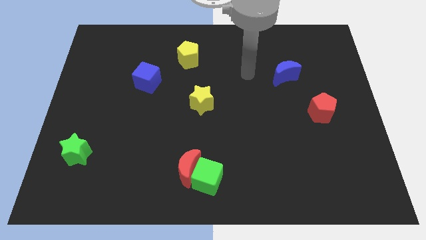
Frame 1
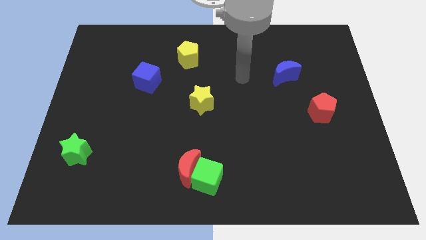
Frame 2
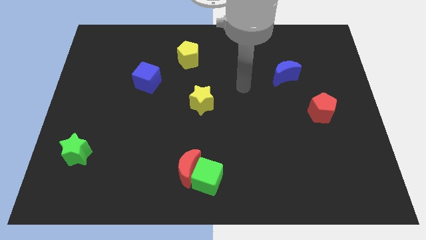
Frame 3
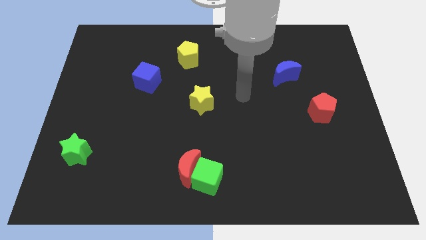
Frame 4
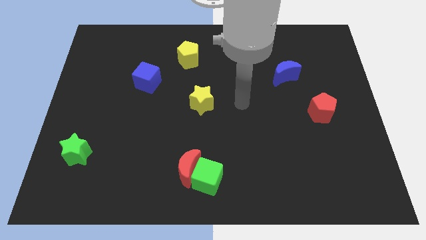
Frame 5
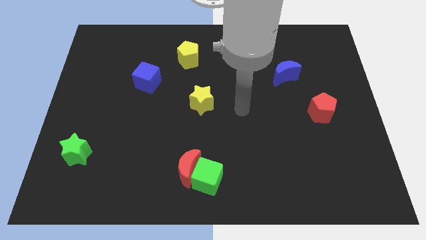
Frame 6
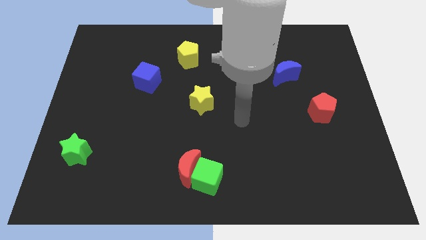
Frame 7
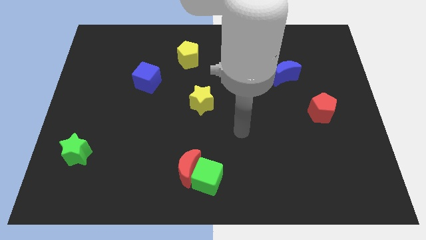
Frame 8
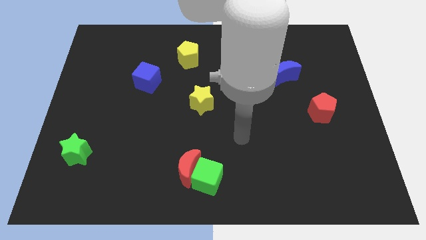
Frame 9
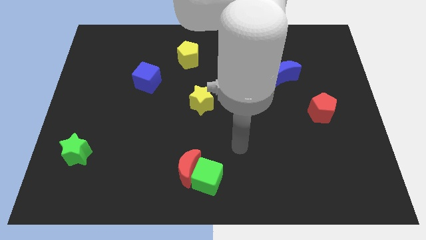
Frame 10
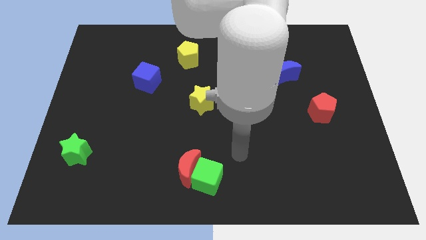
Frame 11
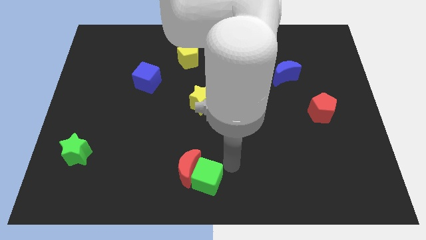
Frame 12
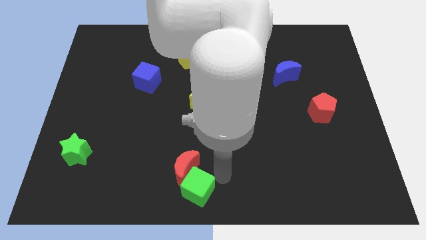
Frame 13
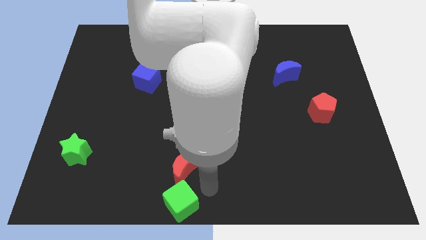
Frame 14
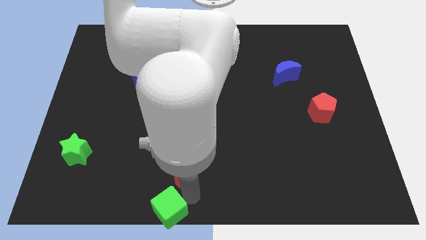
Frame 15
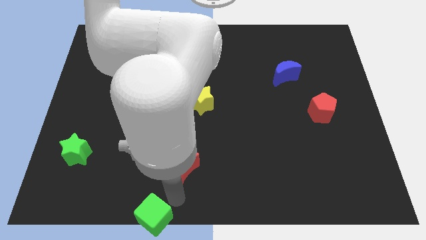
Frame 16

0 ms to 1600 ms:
separate the red moon from the green cube

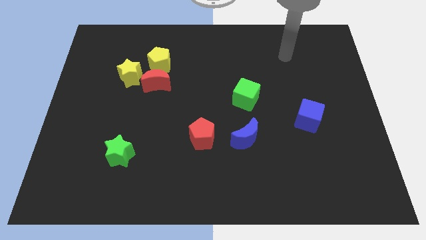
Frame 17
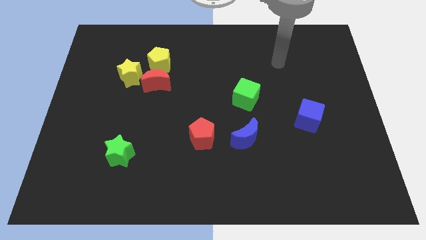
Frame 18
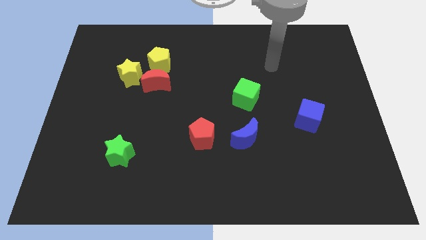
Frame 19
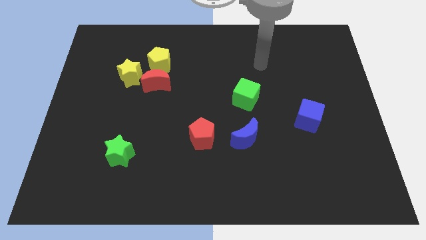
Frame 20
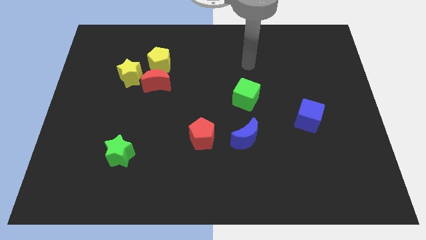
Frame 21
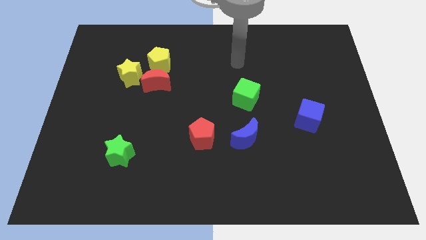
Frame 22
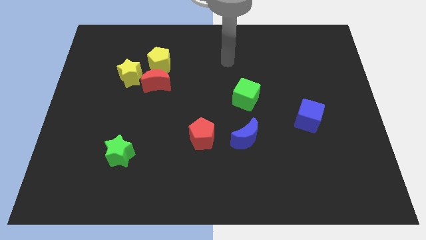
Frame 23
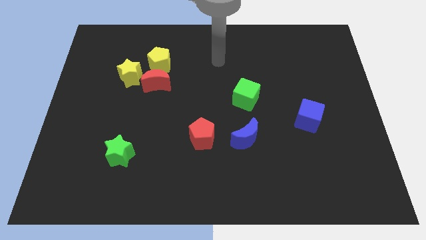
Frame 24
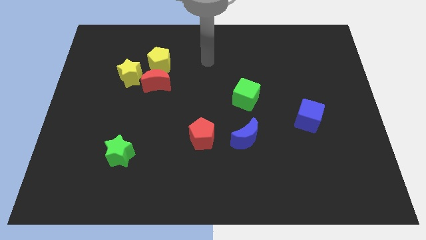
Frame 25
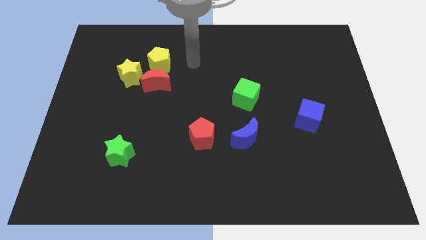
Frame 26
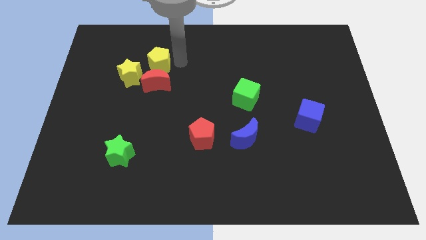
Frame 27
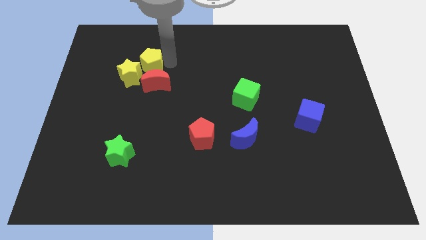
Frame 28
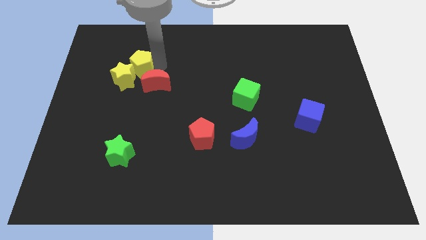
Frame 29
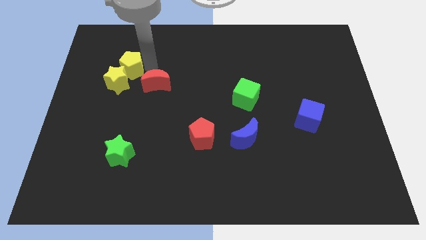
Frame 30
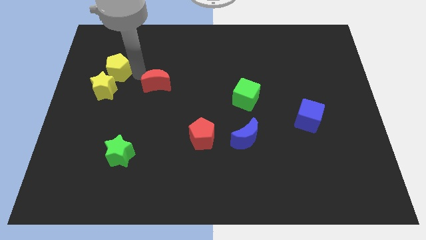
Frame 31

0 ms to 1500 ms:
move the red moon away from the yellow pentagon and yellow star

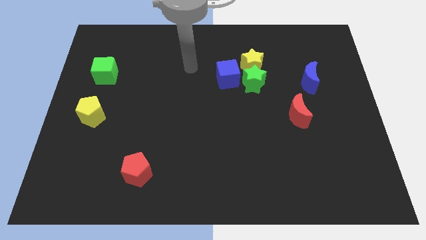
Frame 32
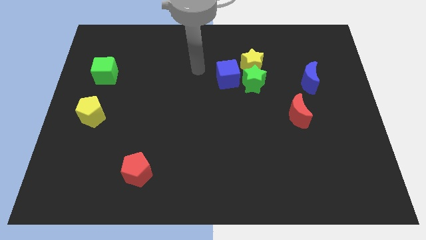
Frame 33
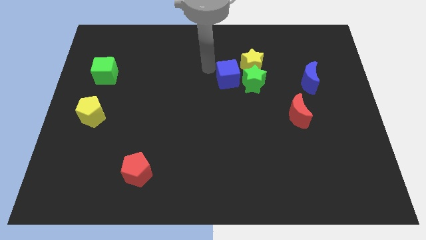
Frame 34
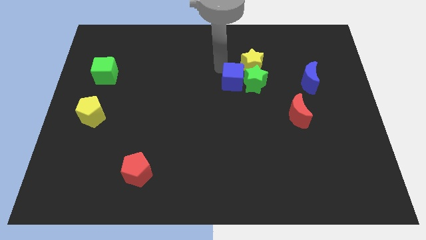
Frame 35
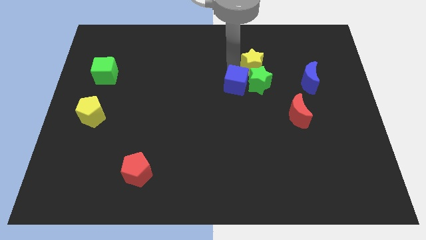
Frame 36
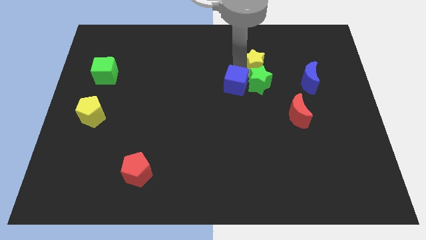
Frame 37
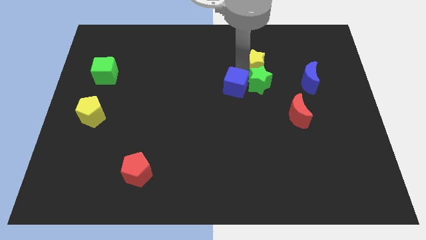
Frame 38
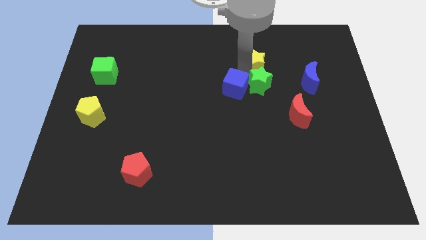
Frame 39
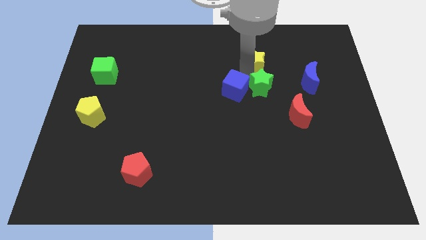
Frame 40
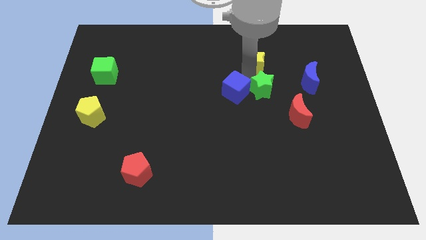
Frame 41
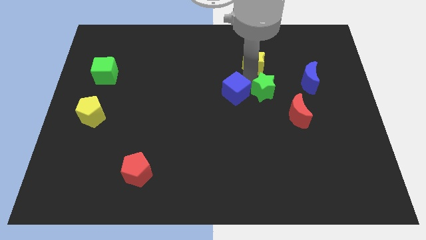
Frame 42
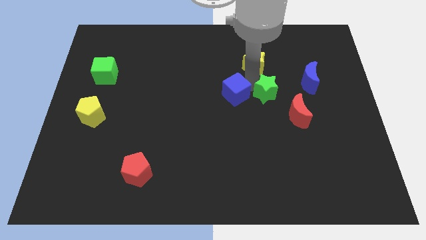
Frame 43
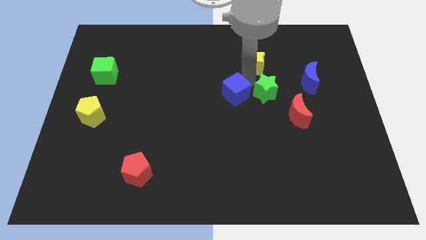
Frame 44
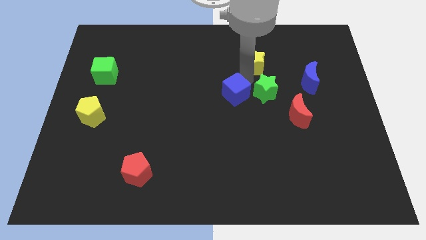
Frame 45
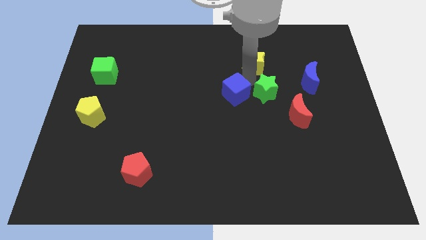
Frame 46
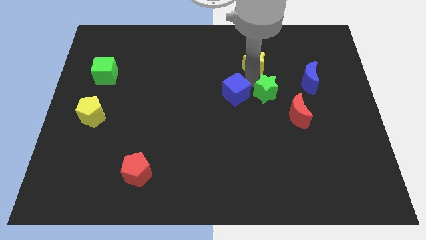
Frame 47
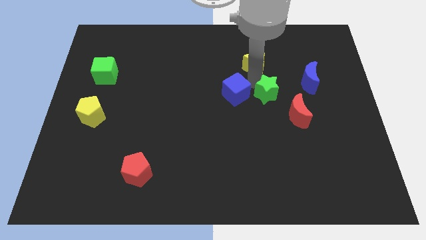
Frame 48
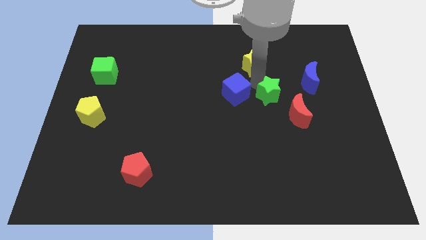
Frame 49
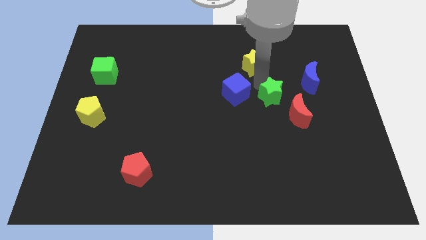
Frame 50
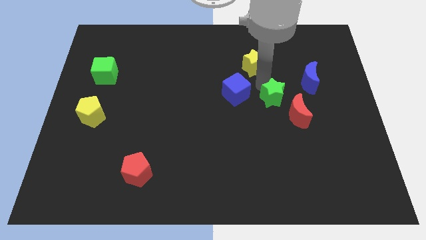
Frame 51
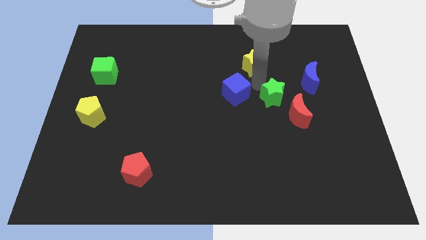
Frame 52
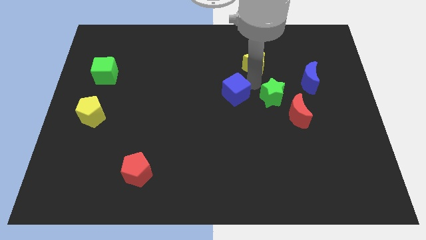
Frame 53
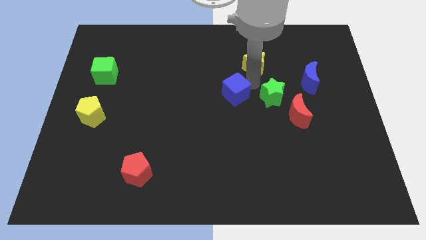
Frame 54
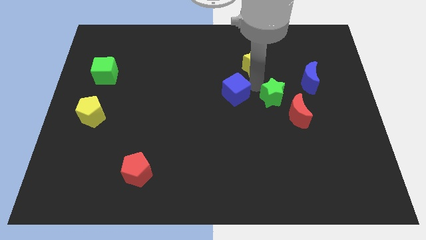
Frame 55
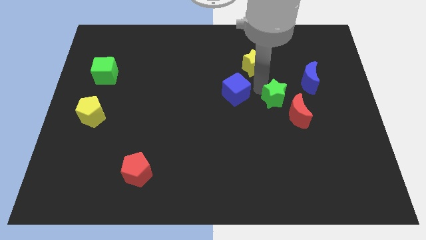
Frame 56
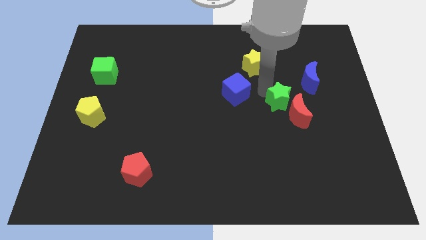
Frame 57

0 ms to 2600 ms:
move the green star away from the yellow star and blue cube

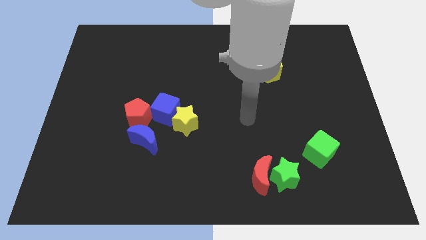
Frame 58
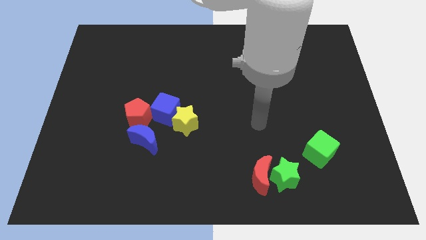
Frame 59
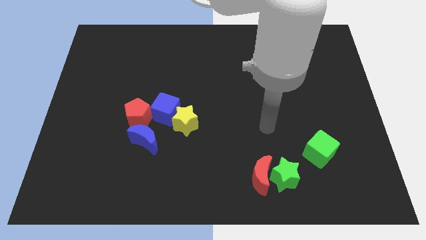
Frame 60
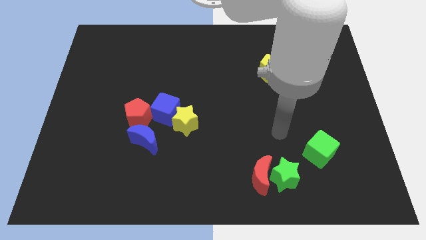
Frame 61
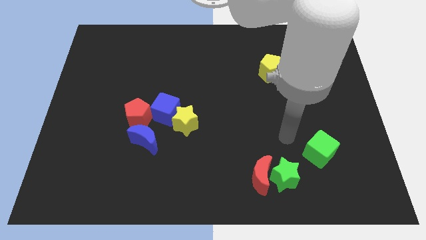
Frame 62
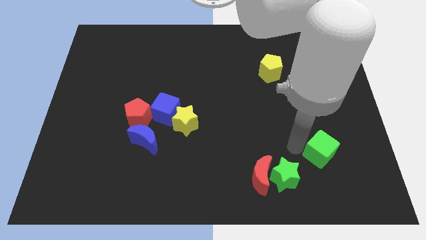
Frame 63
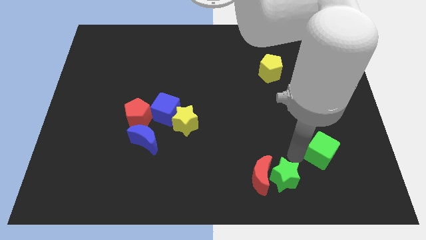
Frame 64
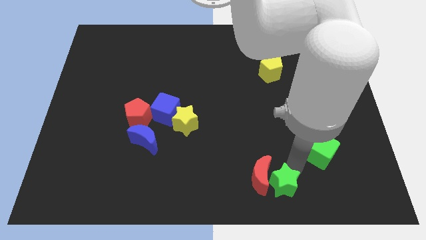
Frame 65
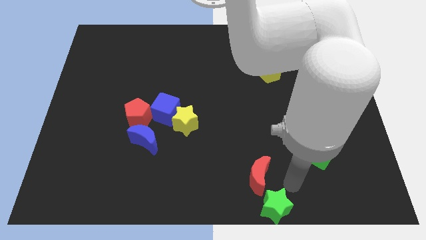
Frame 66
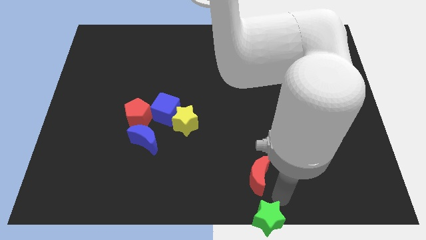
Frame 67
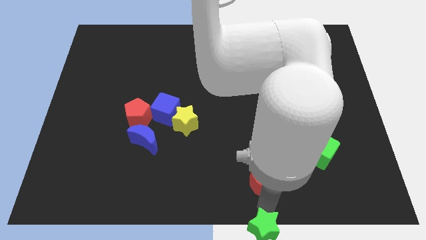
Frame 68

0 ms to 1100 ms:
pull the red moon apart from the green star

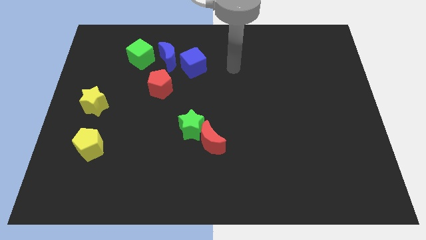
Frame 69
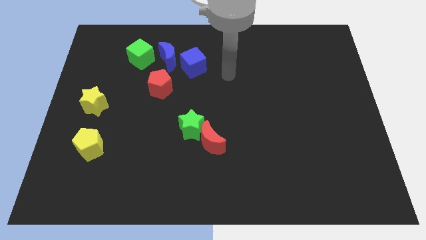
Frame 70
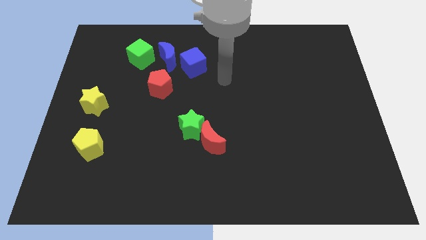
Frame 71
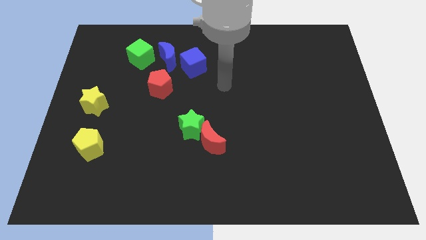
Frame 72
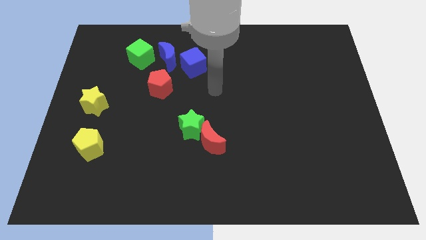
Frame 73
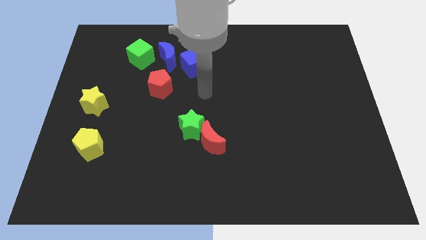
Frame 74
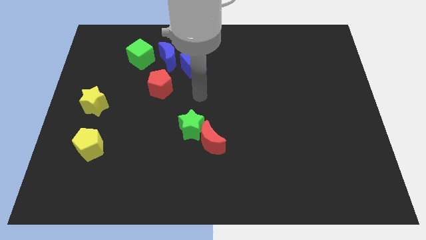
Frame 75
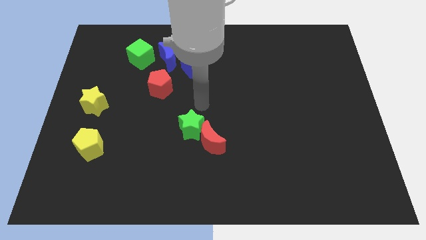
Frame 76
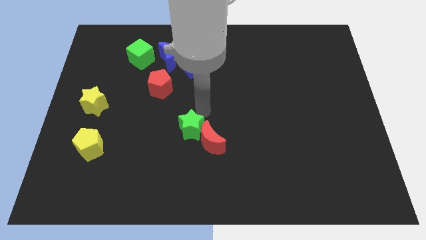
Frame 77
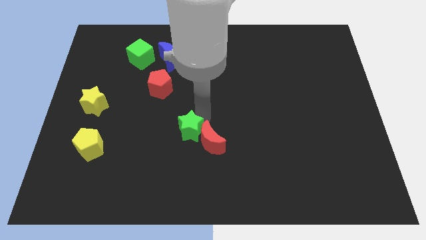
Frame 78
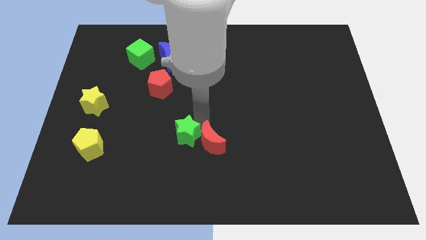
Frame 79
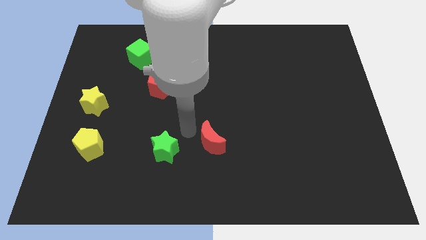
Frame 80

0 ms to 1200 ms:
separate the red moon from the green star

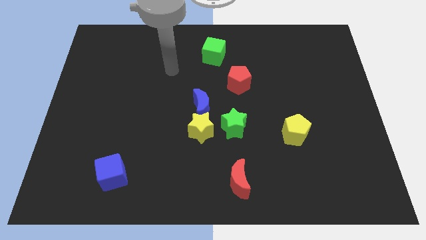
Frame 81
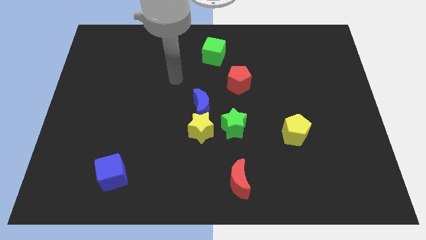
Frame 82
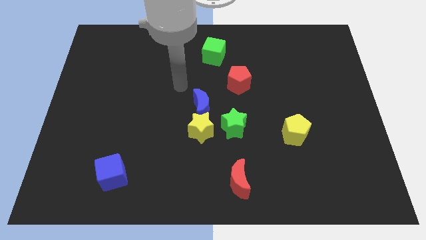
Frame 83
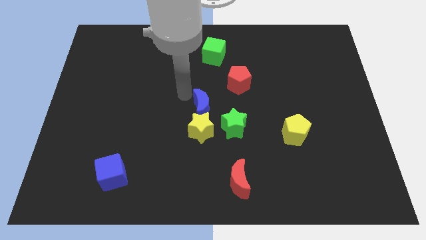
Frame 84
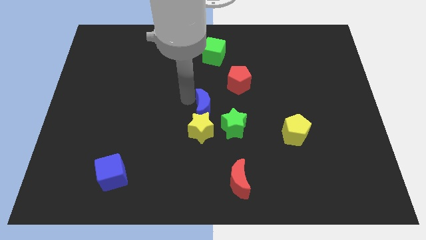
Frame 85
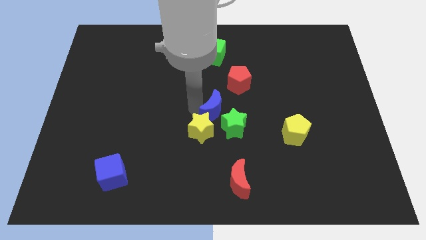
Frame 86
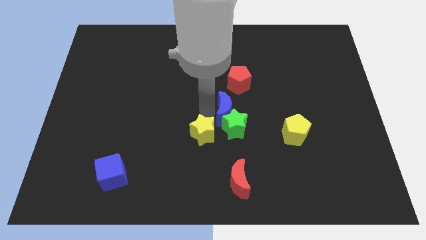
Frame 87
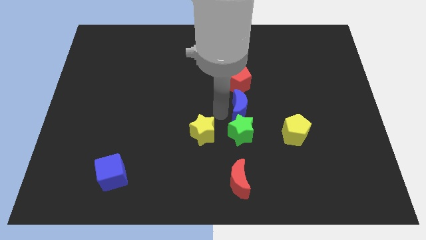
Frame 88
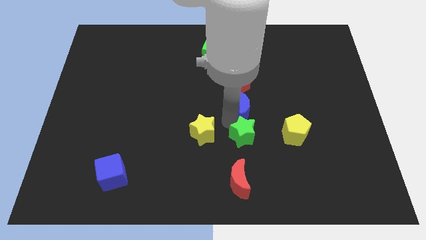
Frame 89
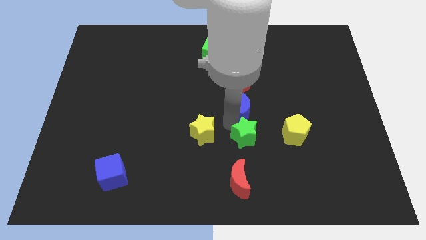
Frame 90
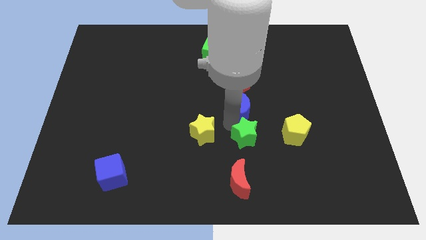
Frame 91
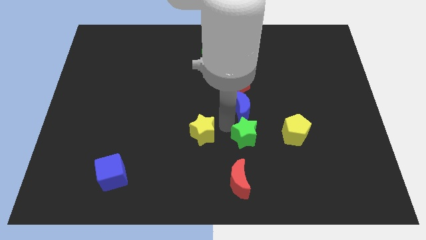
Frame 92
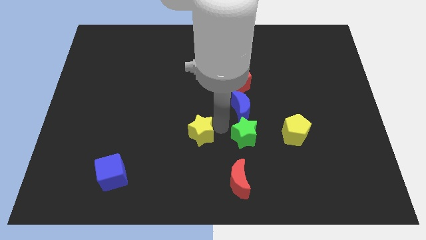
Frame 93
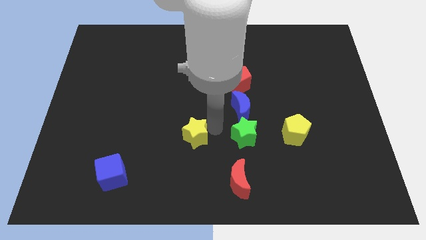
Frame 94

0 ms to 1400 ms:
pull the yellow star apart from the blue moon and green star
